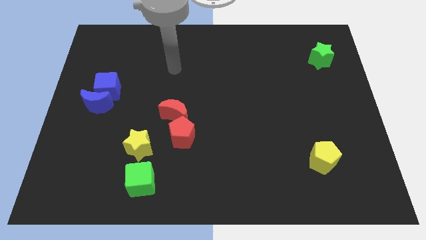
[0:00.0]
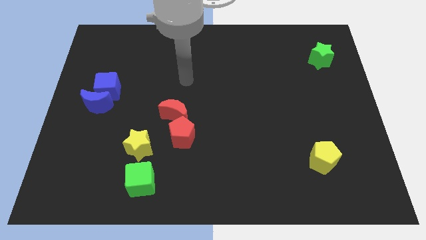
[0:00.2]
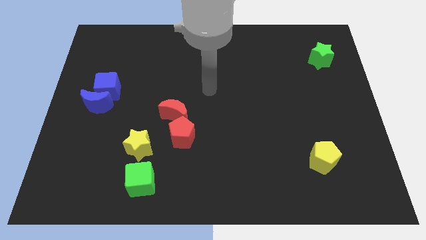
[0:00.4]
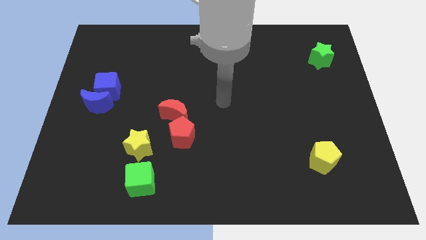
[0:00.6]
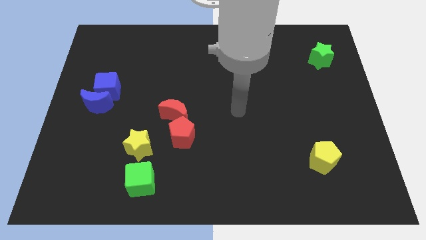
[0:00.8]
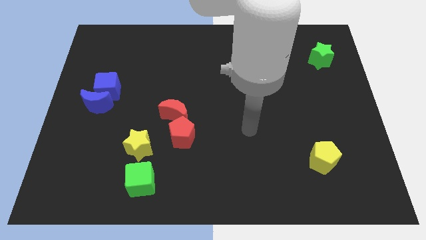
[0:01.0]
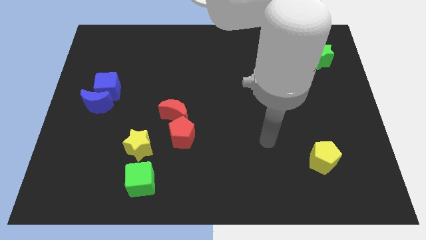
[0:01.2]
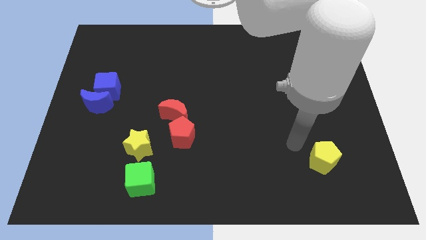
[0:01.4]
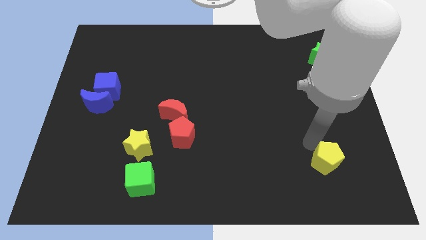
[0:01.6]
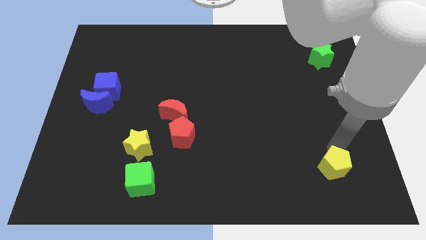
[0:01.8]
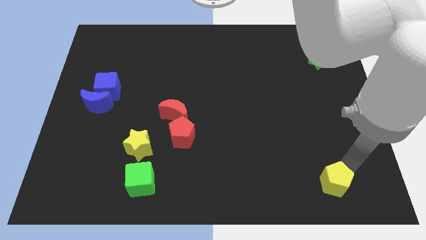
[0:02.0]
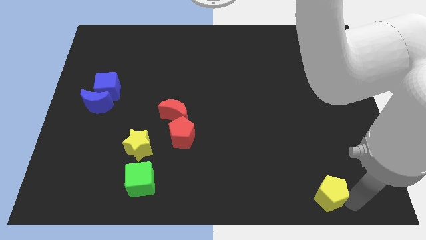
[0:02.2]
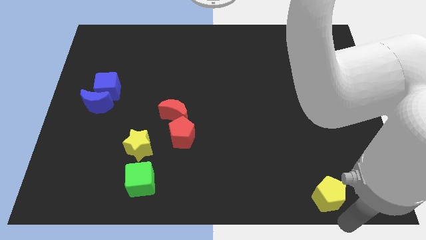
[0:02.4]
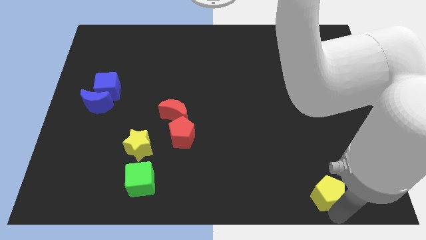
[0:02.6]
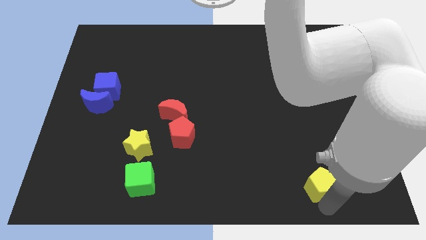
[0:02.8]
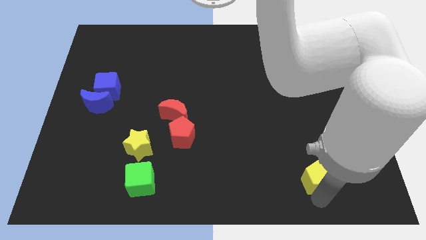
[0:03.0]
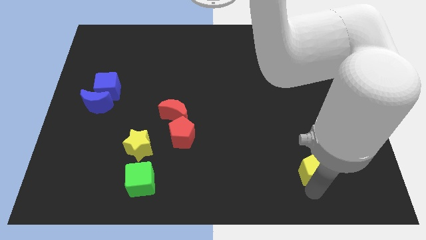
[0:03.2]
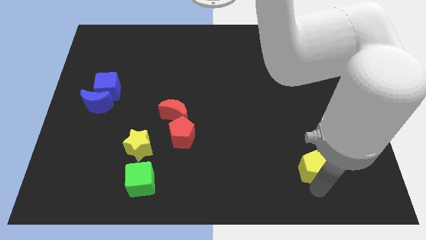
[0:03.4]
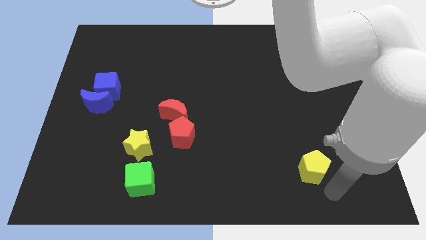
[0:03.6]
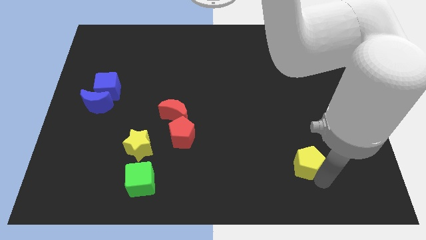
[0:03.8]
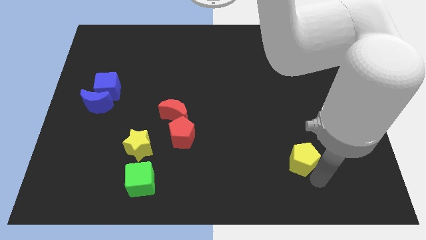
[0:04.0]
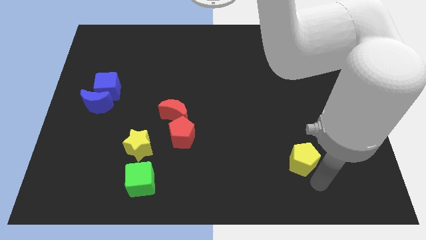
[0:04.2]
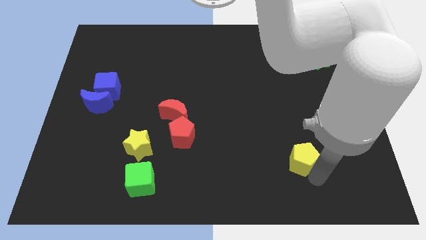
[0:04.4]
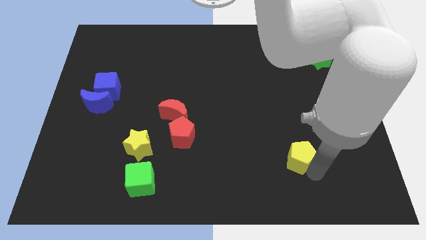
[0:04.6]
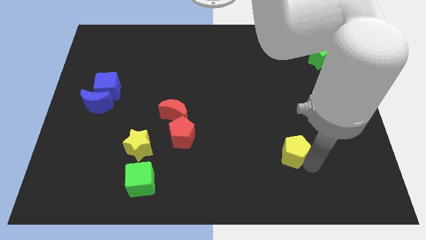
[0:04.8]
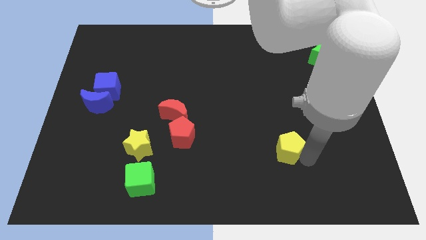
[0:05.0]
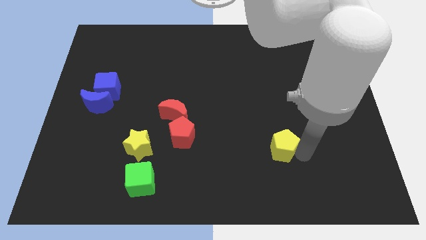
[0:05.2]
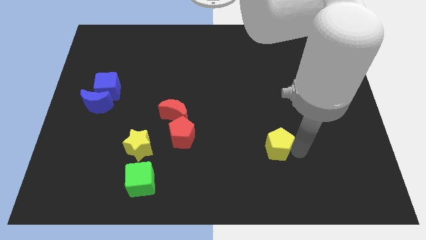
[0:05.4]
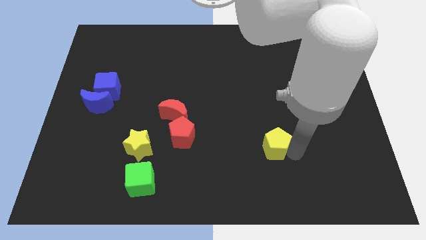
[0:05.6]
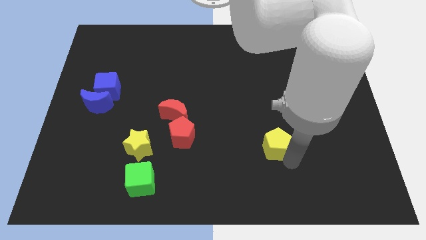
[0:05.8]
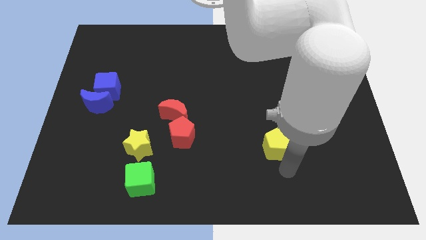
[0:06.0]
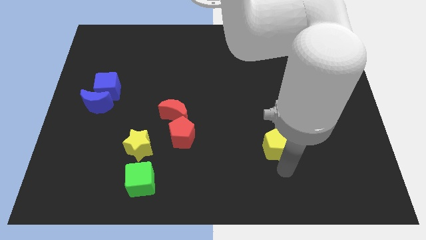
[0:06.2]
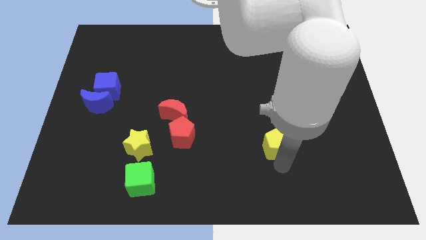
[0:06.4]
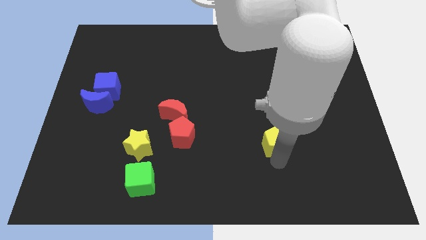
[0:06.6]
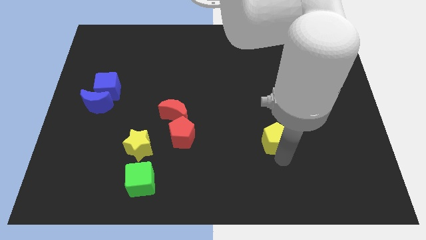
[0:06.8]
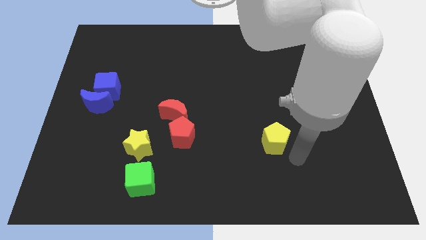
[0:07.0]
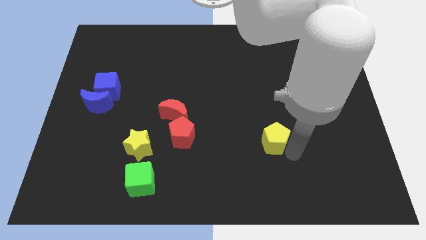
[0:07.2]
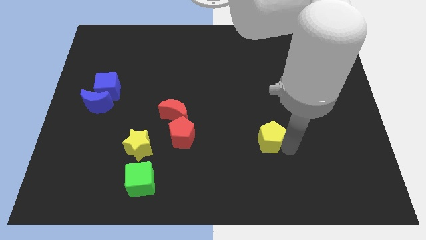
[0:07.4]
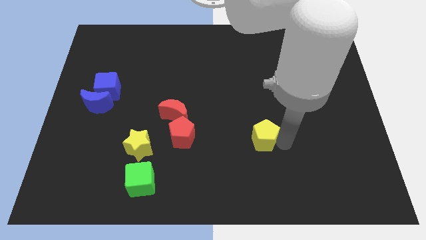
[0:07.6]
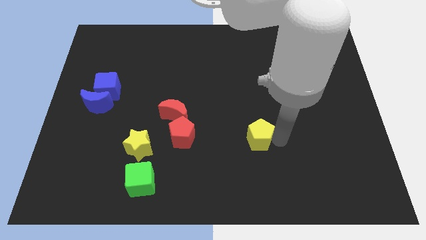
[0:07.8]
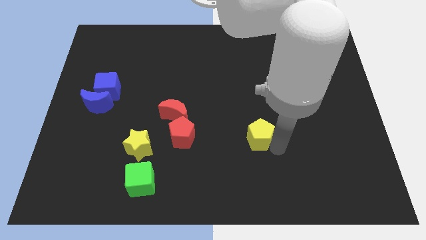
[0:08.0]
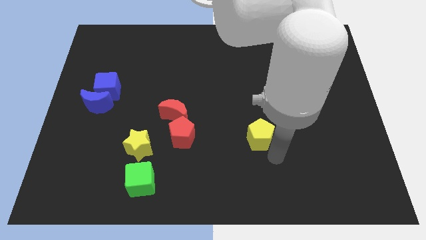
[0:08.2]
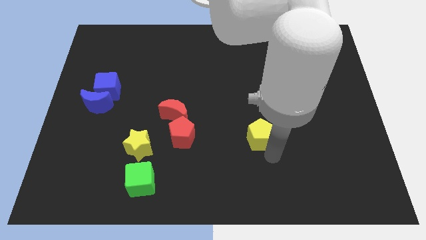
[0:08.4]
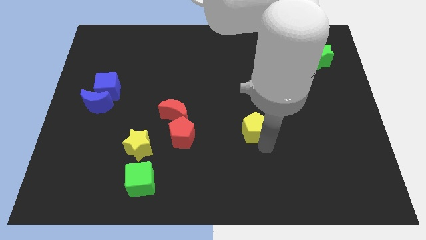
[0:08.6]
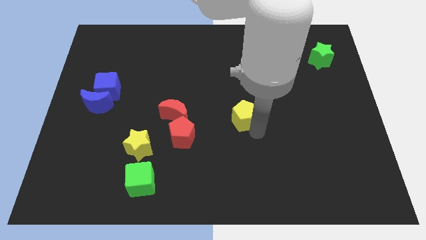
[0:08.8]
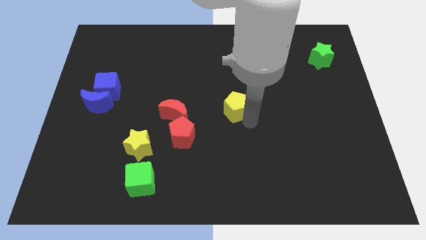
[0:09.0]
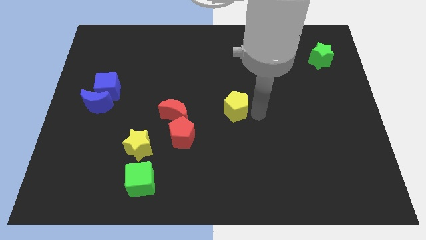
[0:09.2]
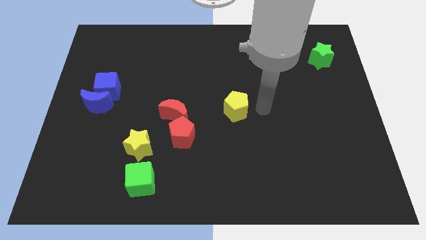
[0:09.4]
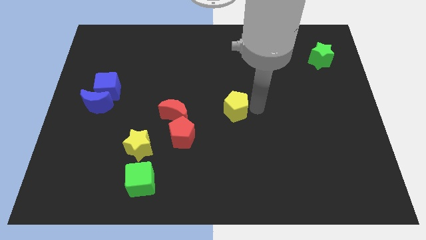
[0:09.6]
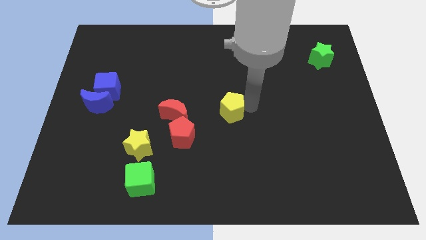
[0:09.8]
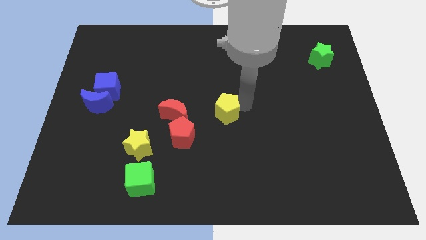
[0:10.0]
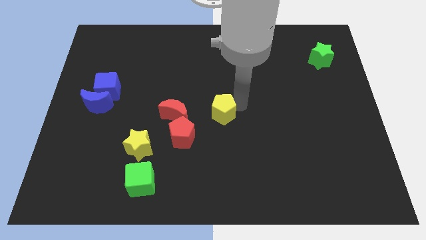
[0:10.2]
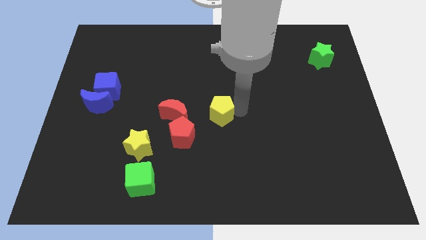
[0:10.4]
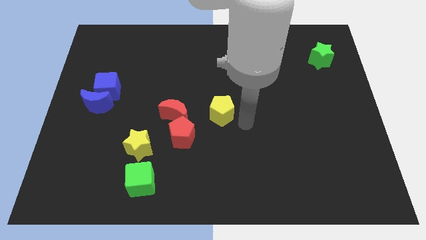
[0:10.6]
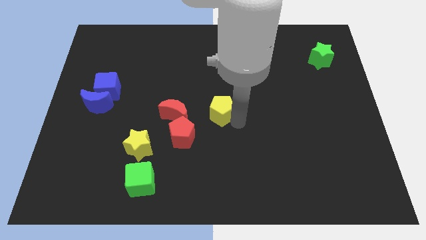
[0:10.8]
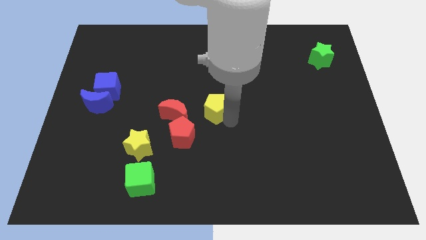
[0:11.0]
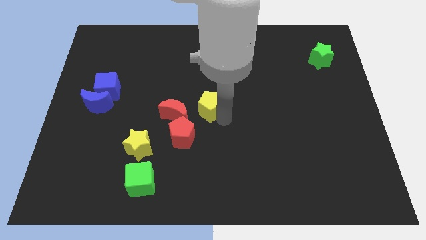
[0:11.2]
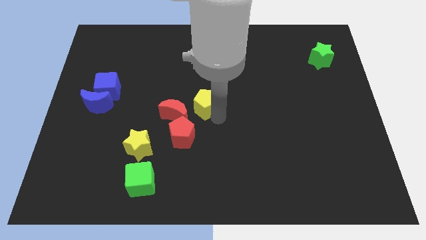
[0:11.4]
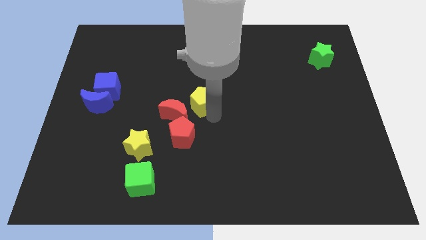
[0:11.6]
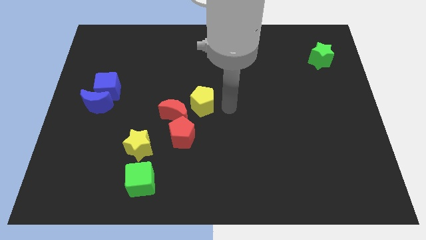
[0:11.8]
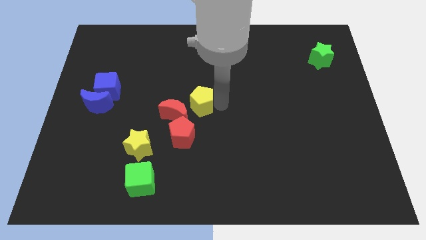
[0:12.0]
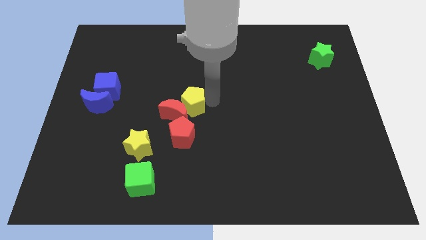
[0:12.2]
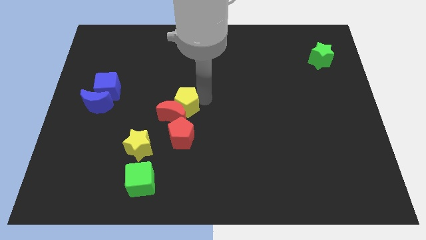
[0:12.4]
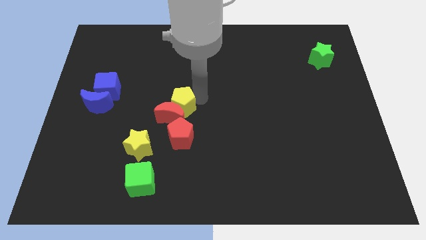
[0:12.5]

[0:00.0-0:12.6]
move the yellow pentagon to the top left side of the red moon

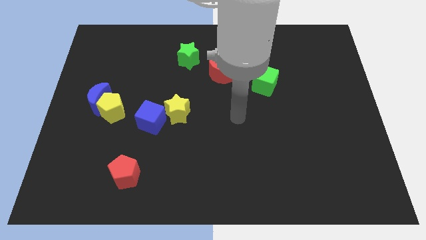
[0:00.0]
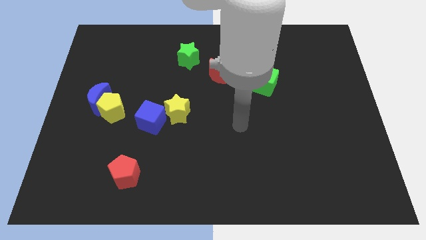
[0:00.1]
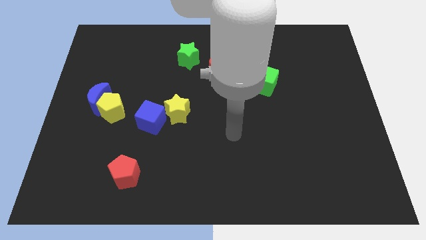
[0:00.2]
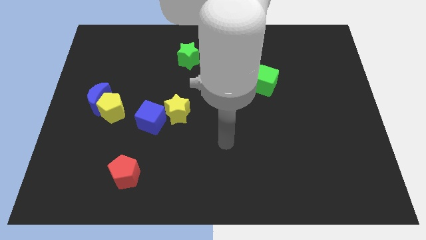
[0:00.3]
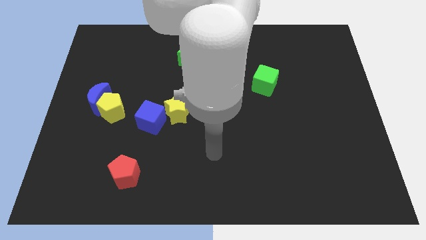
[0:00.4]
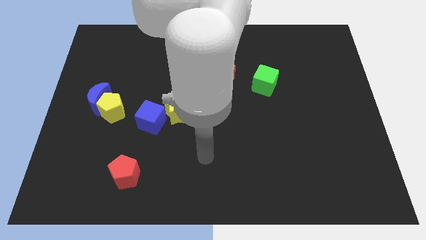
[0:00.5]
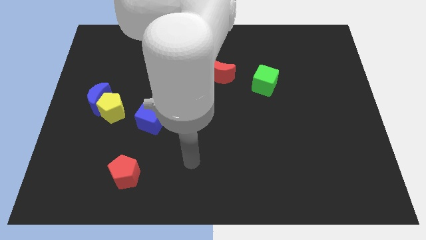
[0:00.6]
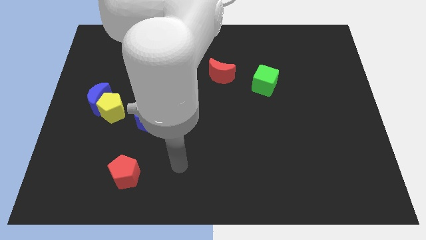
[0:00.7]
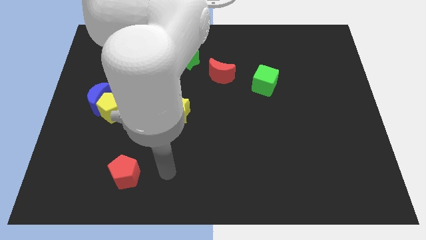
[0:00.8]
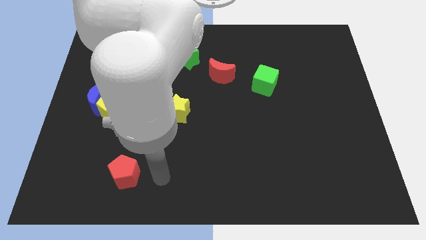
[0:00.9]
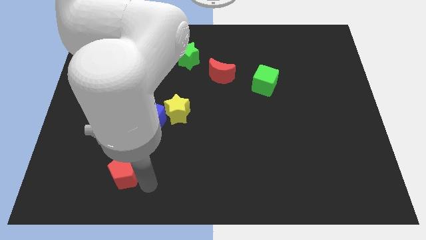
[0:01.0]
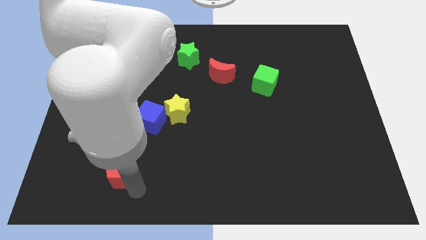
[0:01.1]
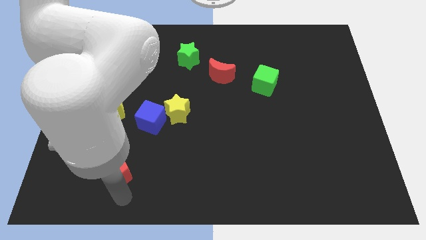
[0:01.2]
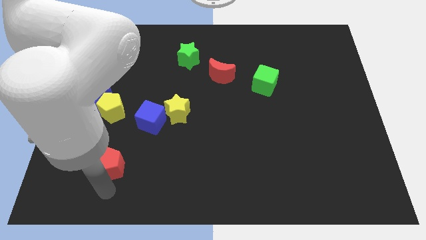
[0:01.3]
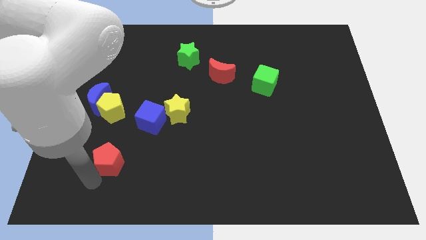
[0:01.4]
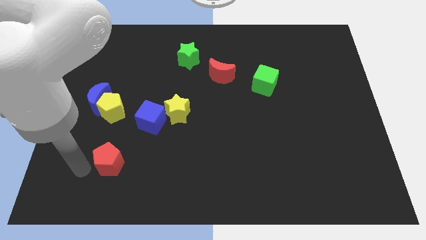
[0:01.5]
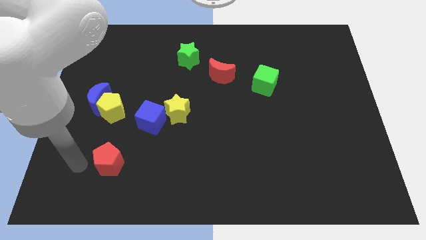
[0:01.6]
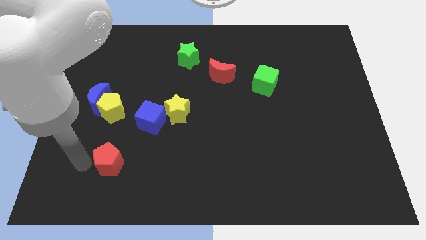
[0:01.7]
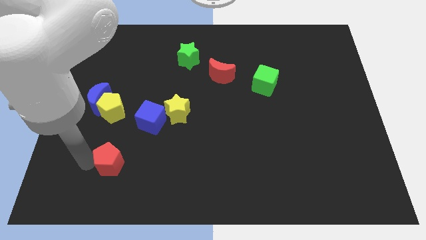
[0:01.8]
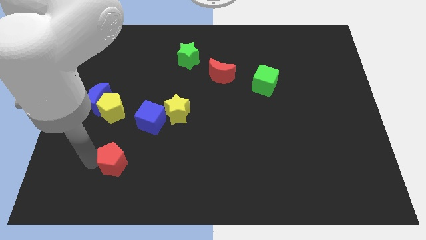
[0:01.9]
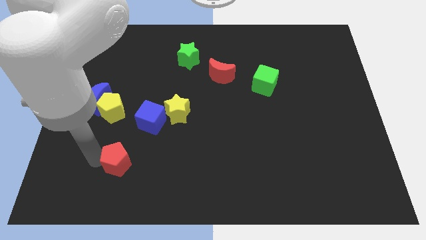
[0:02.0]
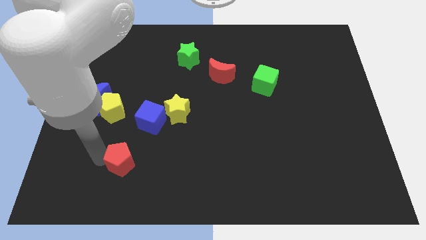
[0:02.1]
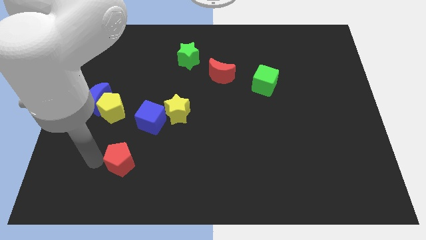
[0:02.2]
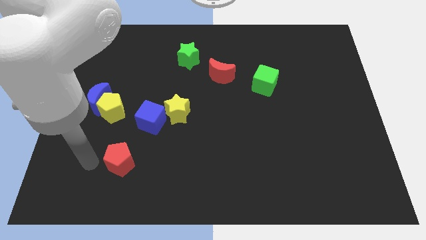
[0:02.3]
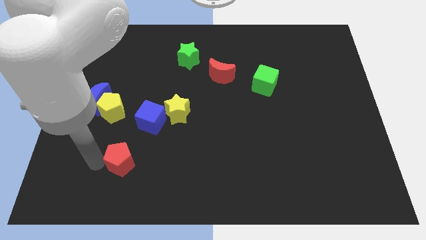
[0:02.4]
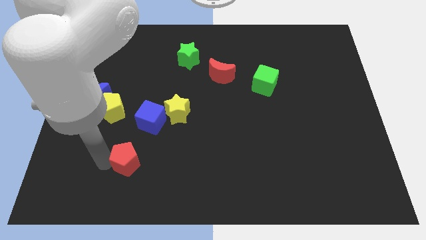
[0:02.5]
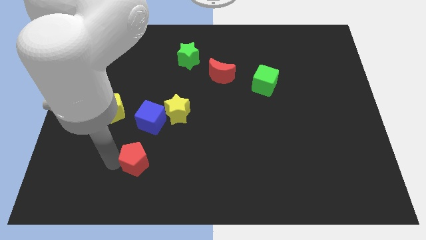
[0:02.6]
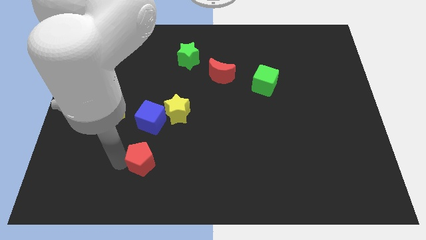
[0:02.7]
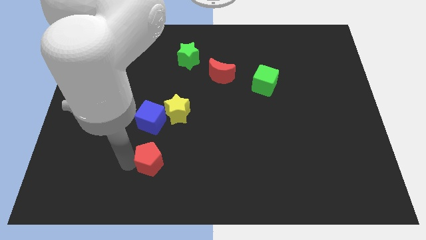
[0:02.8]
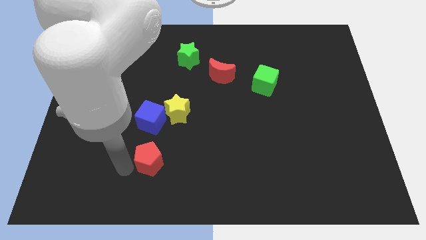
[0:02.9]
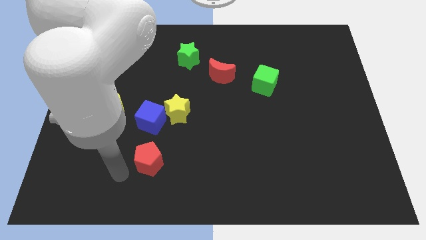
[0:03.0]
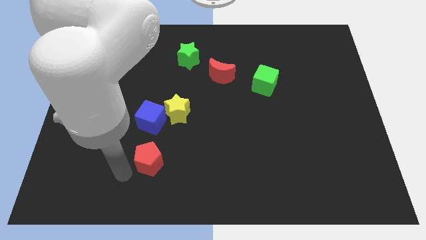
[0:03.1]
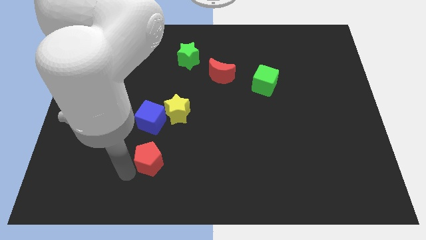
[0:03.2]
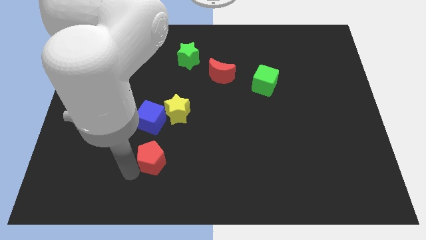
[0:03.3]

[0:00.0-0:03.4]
push the red pentagon to the bottom side of the yellow star
